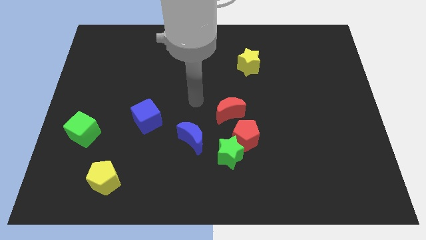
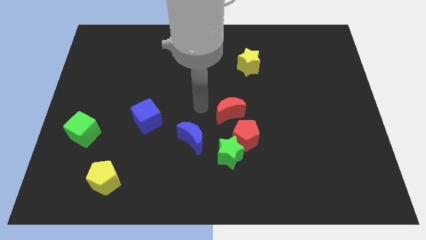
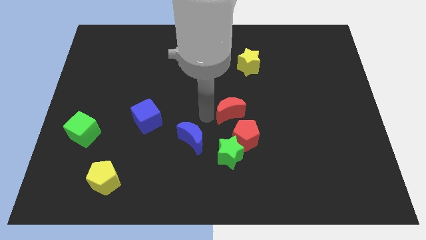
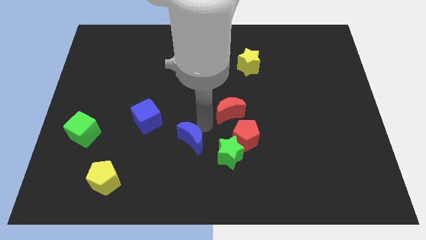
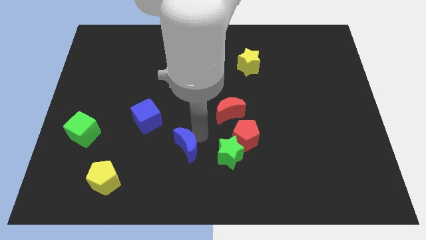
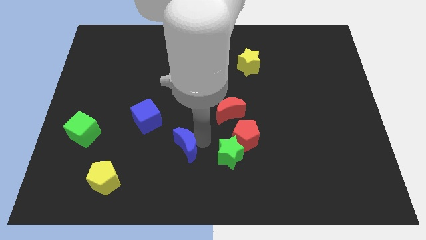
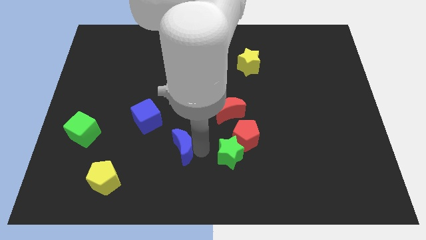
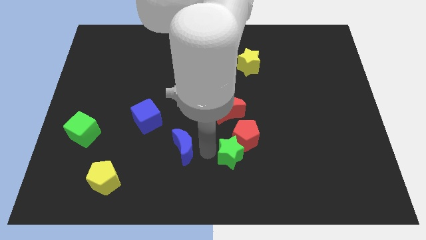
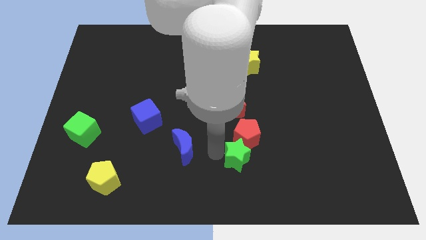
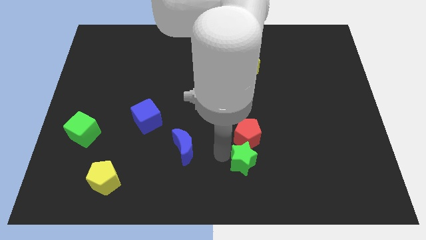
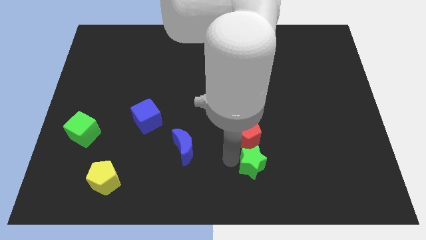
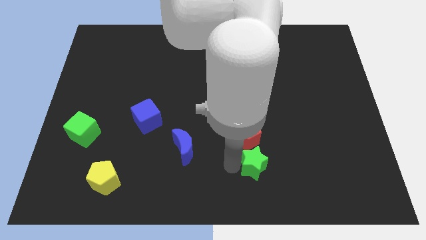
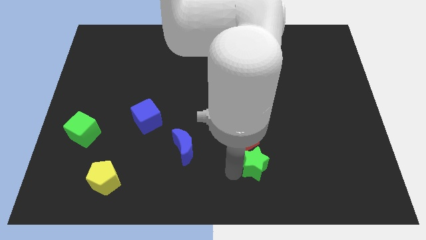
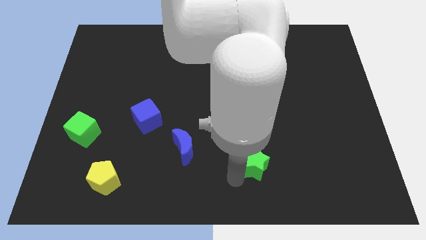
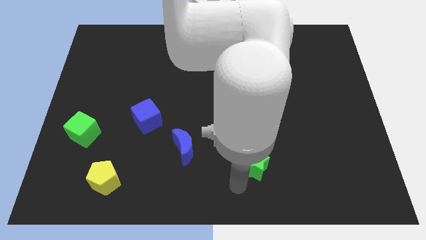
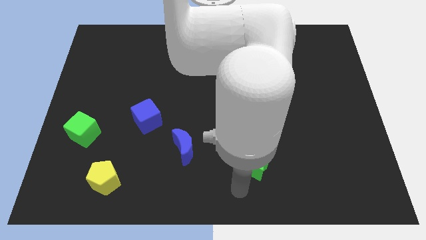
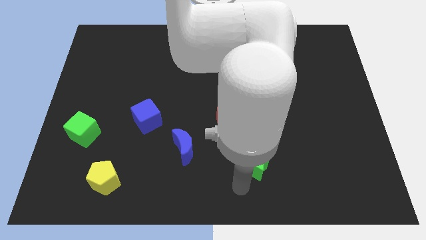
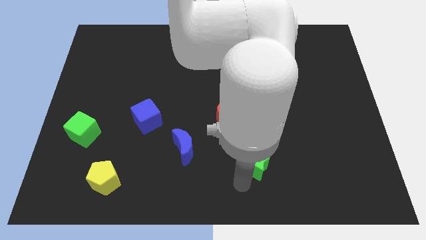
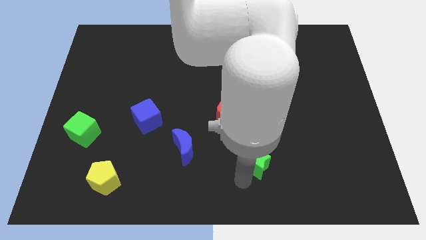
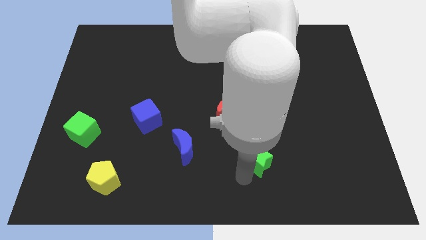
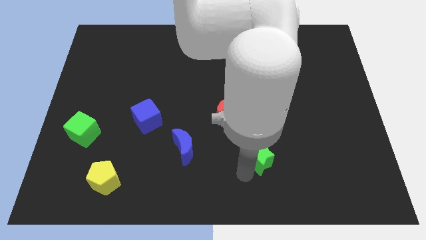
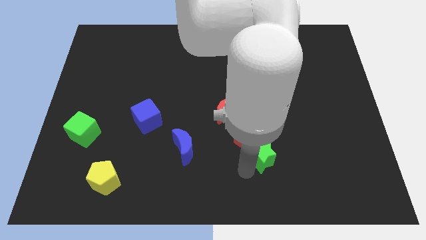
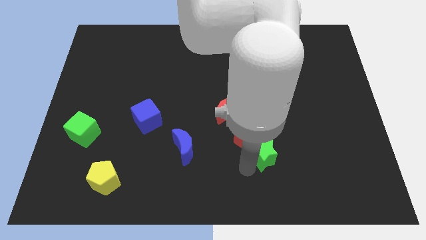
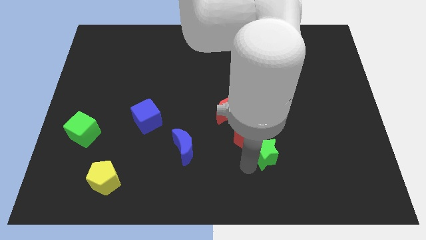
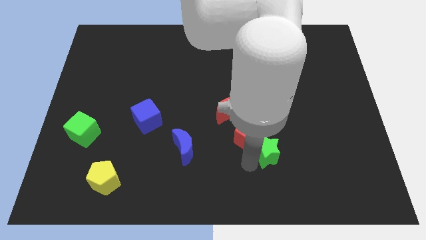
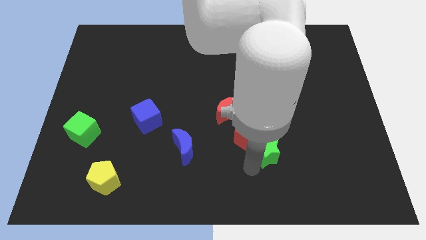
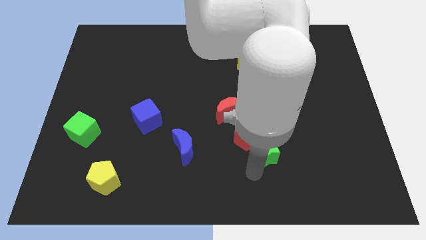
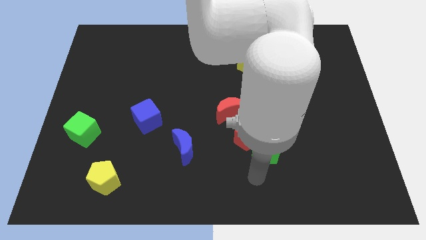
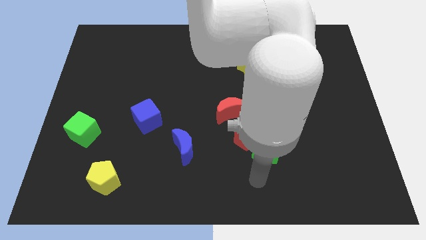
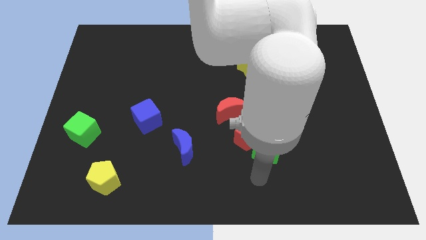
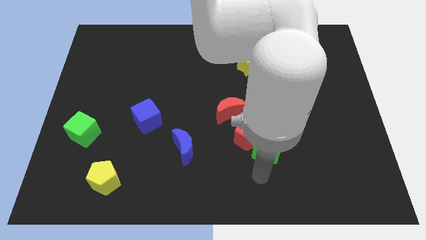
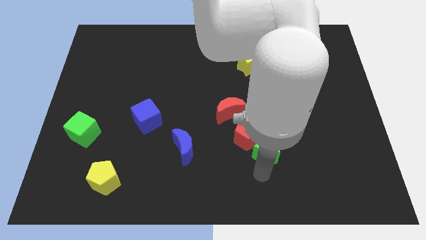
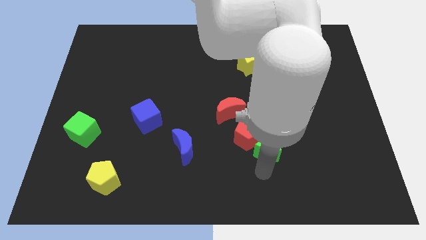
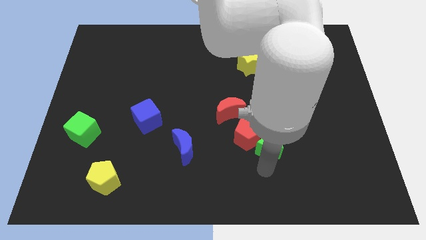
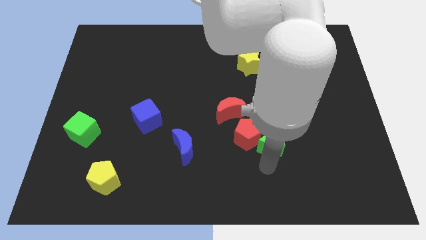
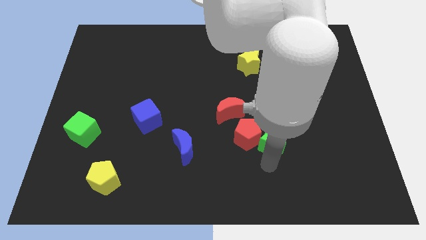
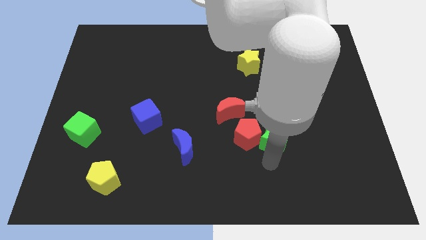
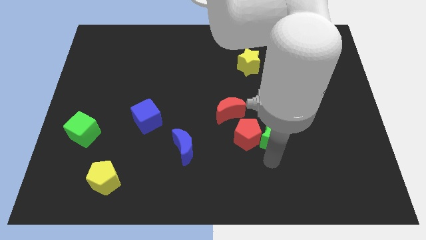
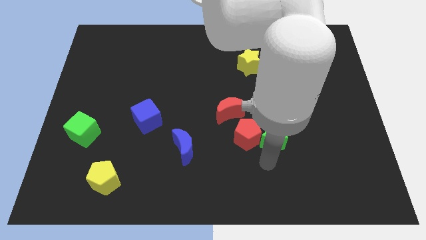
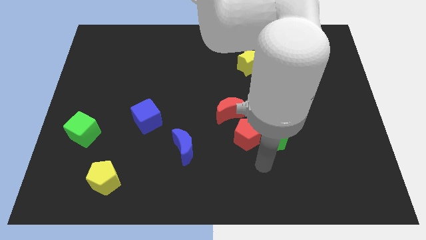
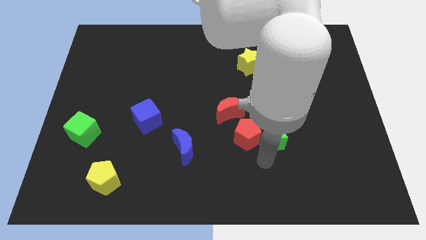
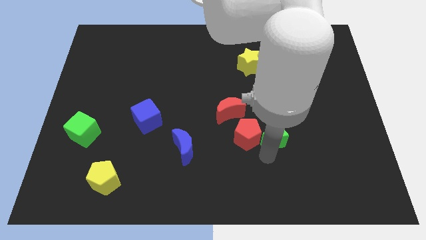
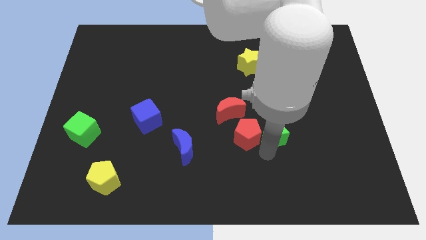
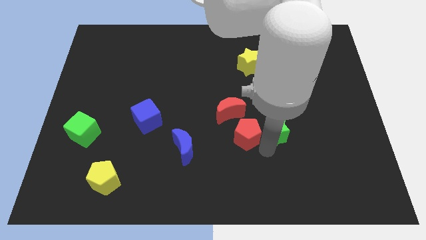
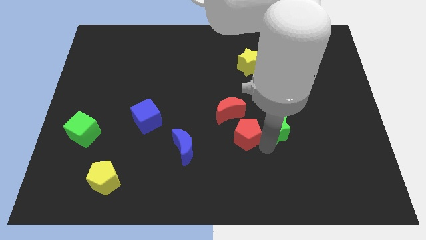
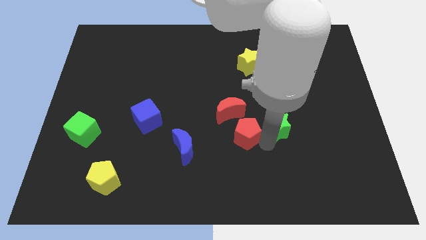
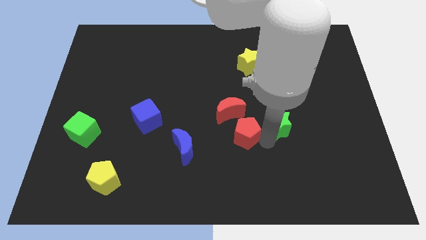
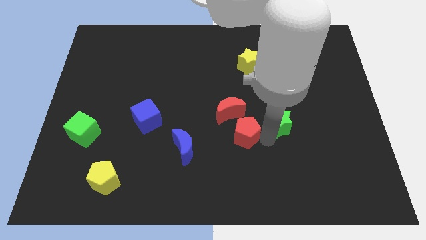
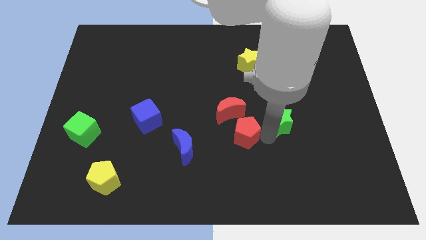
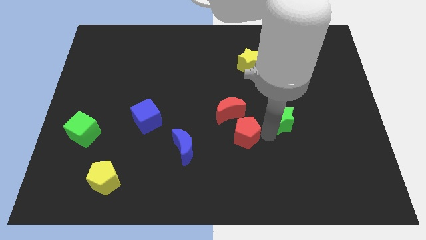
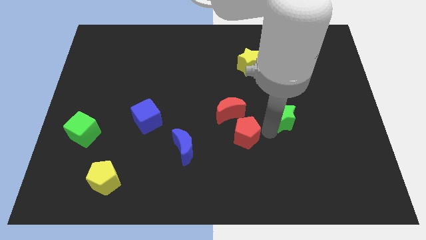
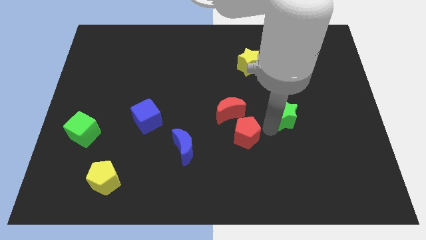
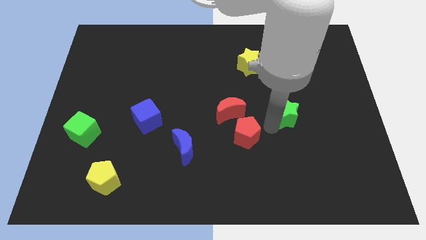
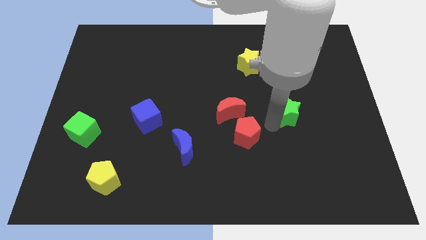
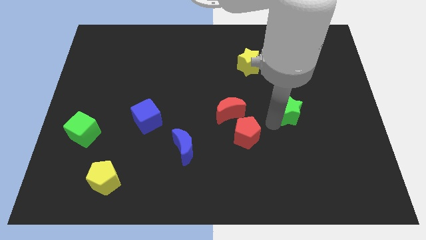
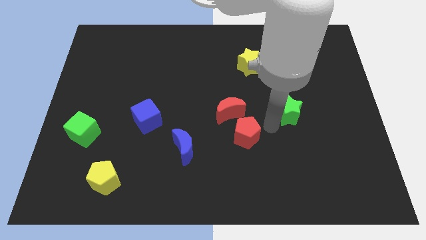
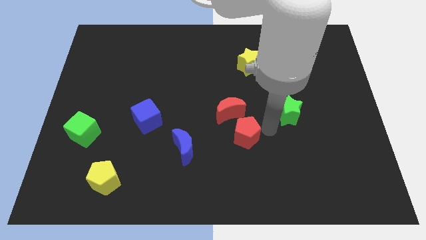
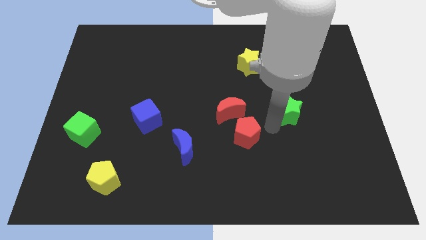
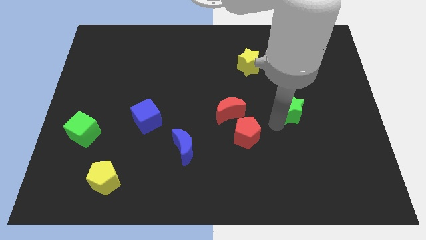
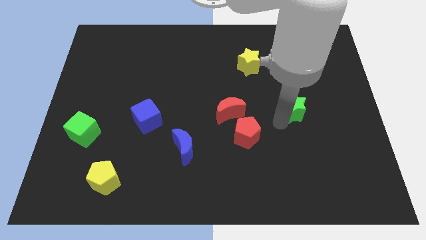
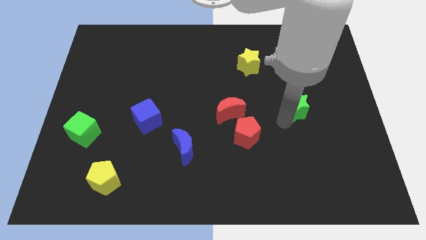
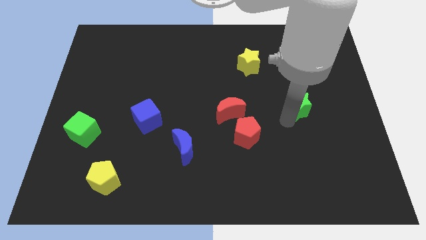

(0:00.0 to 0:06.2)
move the green star upwards and then to the right

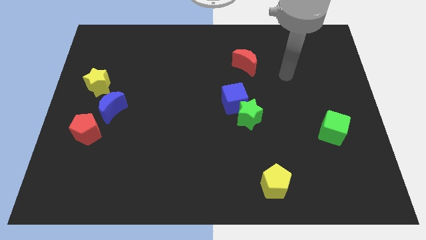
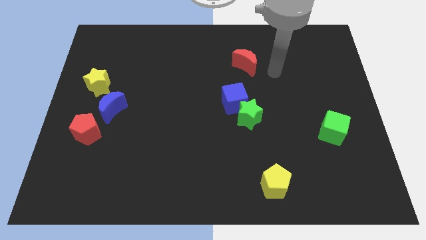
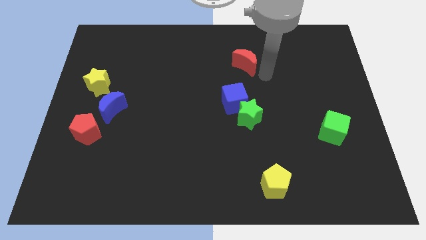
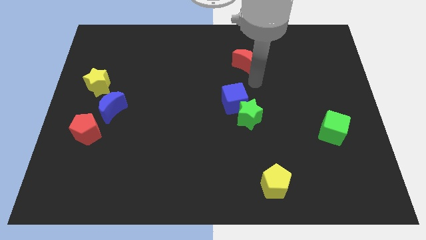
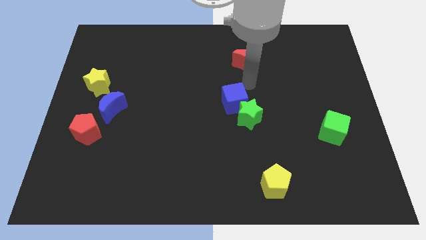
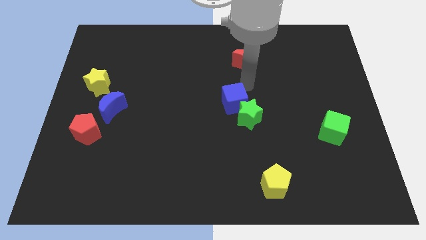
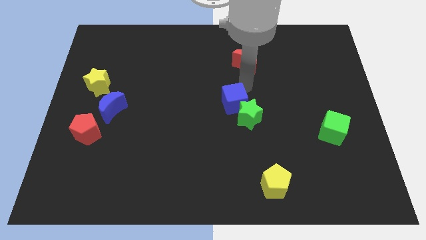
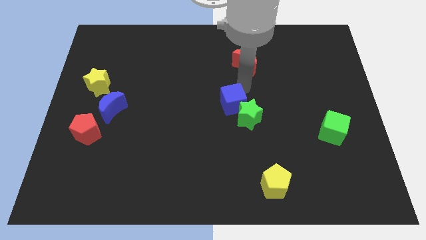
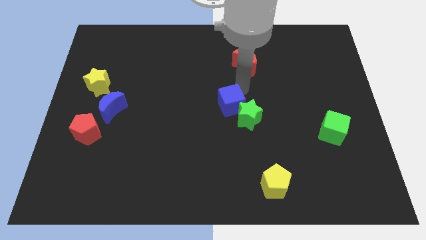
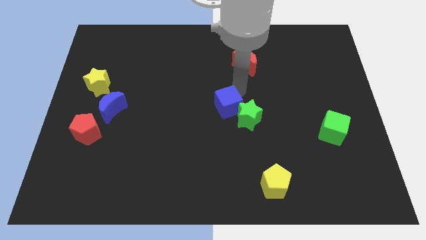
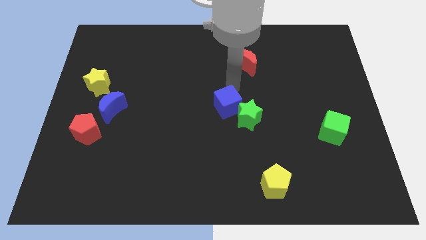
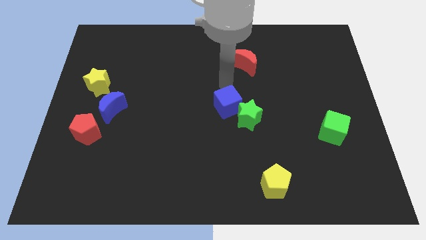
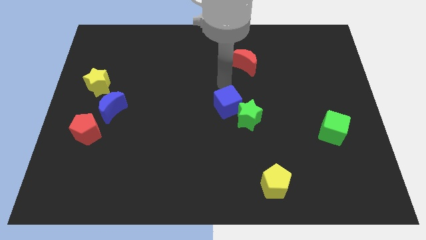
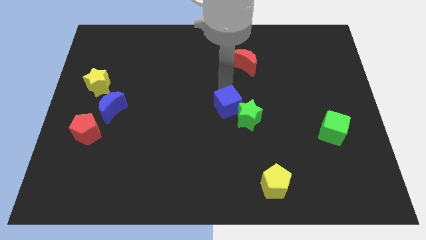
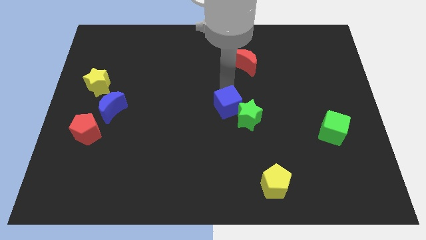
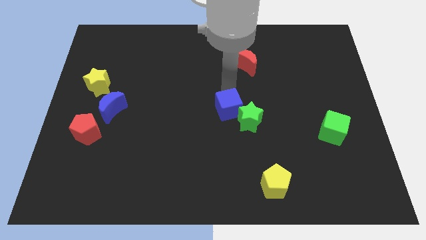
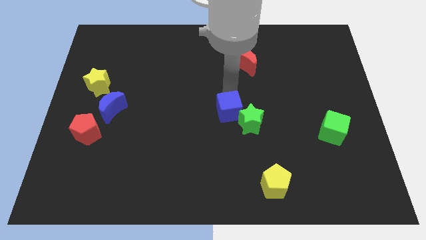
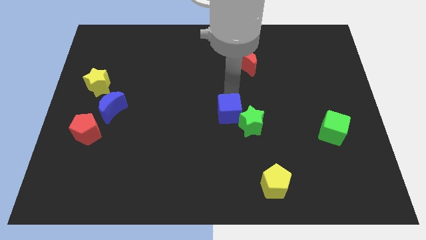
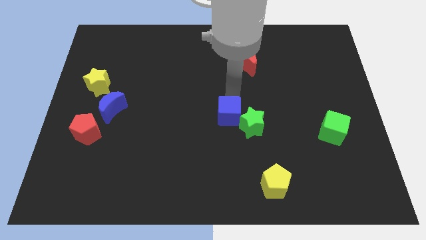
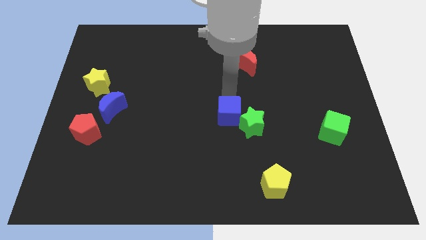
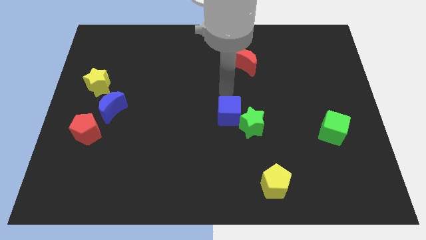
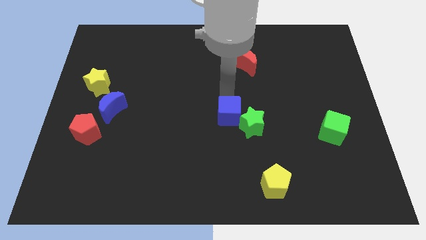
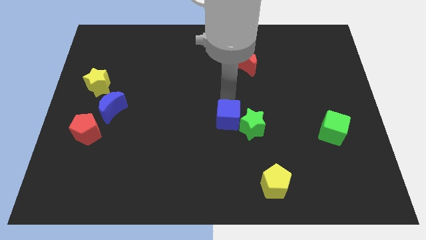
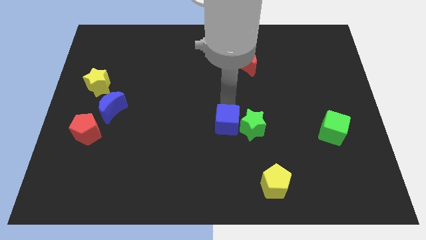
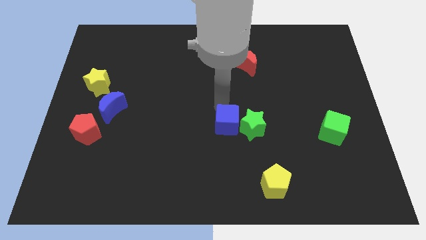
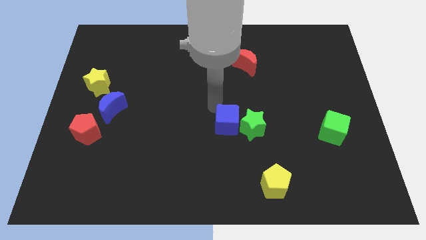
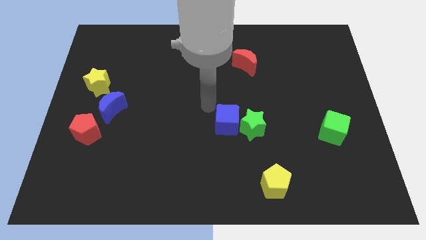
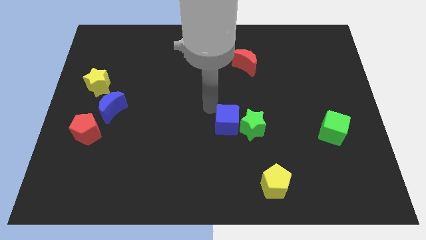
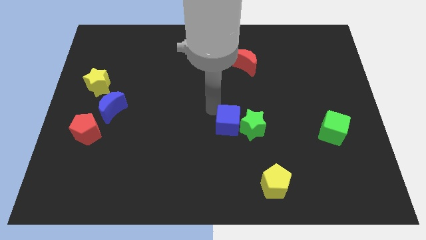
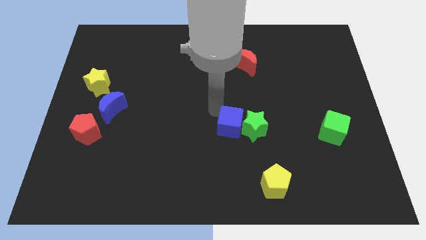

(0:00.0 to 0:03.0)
slightly push the blue cube downwards
